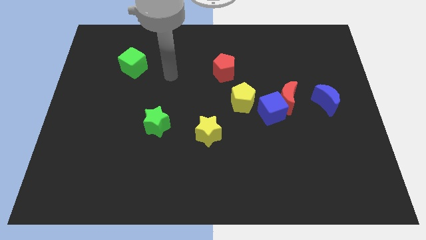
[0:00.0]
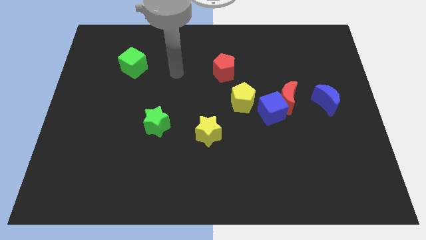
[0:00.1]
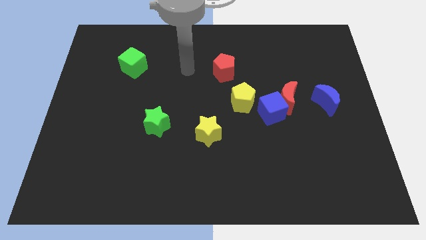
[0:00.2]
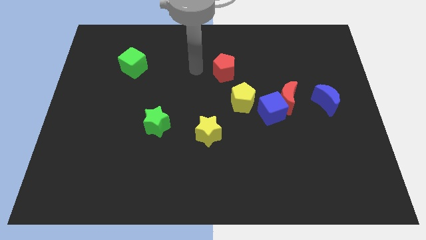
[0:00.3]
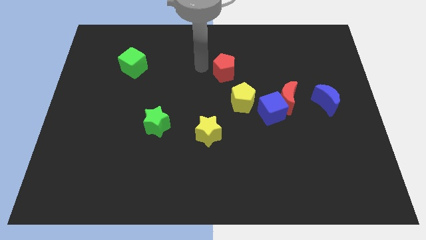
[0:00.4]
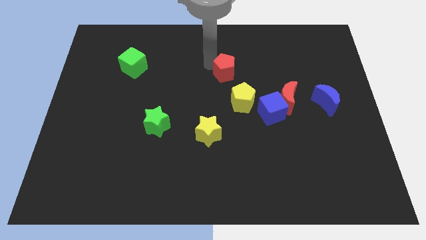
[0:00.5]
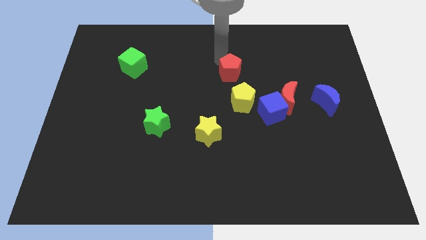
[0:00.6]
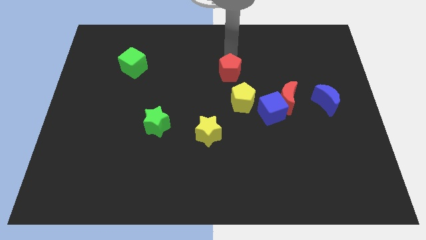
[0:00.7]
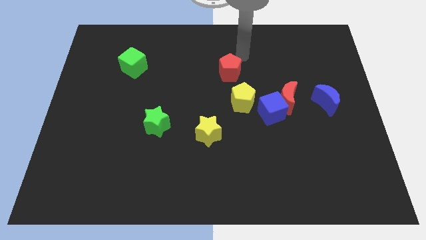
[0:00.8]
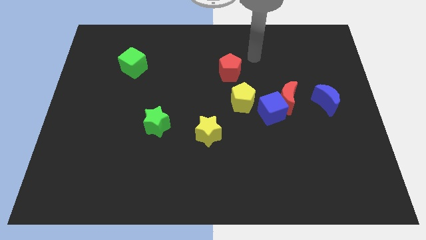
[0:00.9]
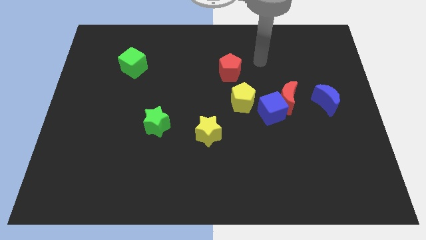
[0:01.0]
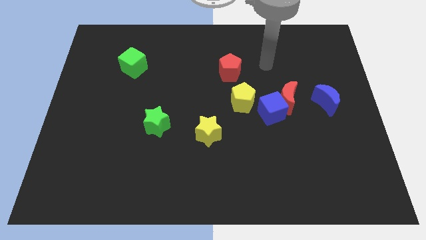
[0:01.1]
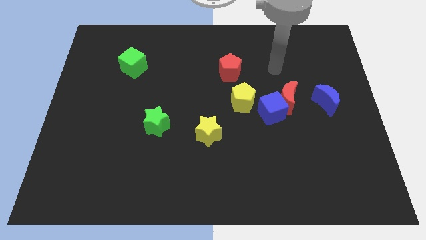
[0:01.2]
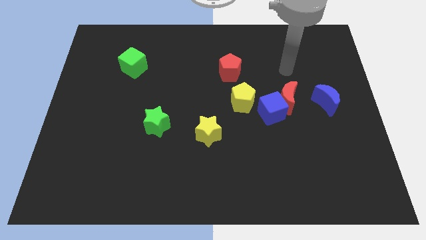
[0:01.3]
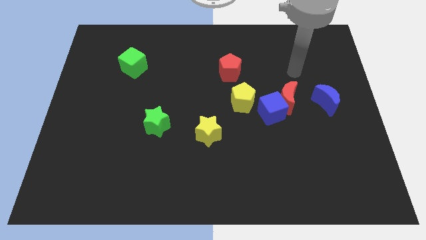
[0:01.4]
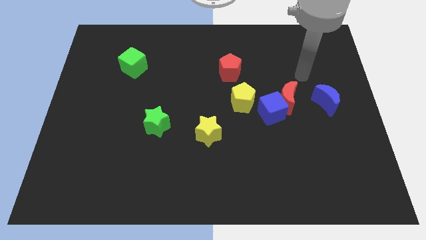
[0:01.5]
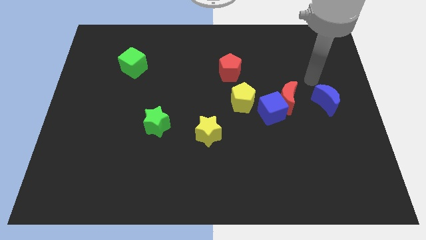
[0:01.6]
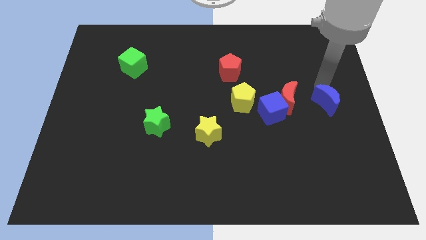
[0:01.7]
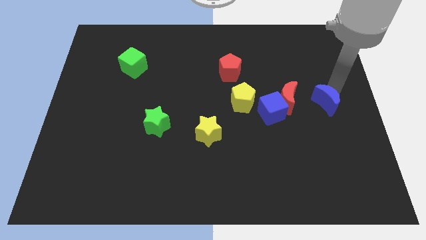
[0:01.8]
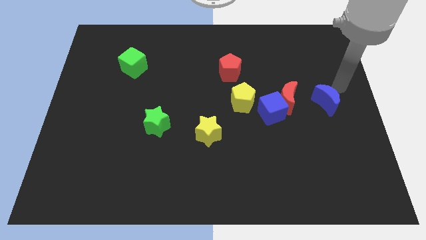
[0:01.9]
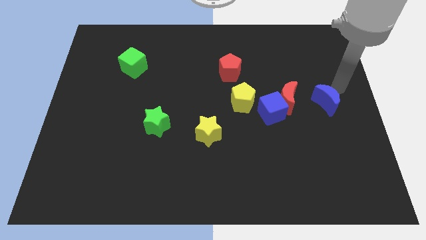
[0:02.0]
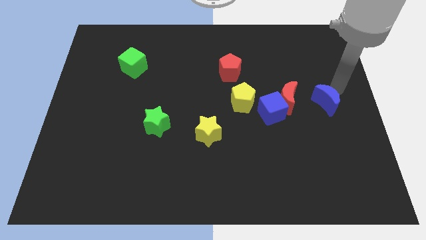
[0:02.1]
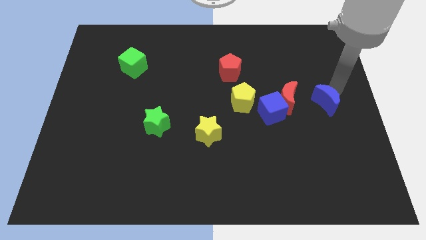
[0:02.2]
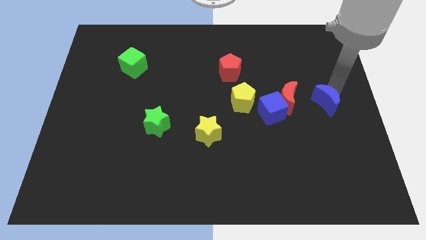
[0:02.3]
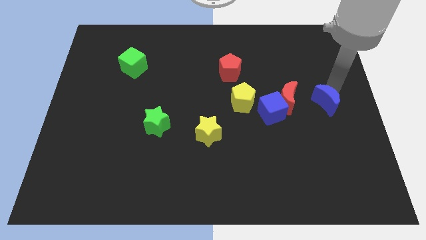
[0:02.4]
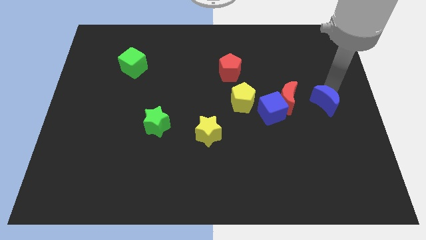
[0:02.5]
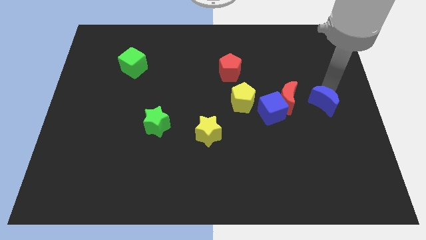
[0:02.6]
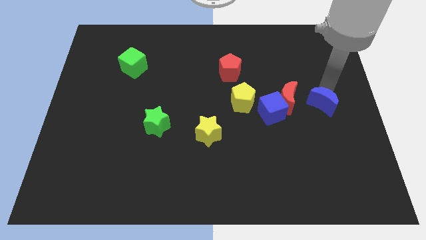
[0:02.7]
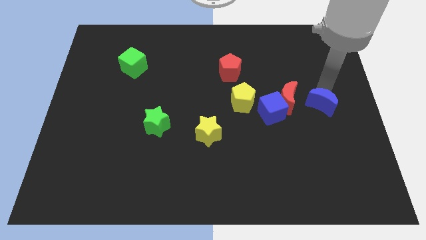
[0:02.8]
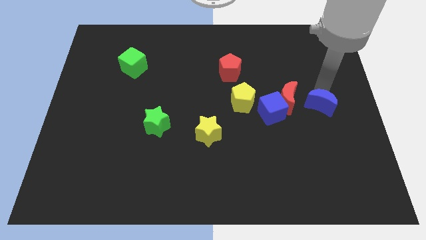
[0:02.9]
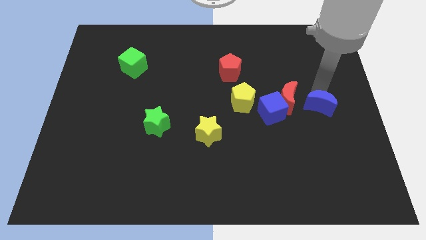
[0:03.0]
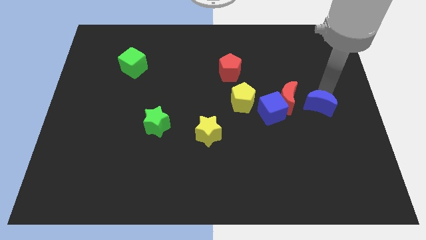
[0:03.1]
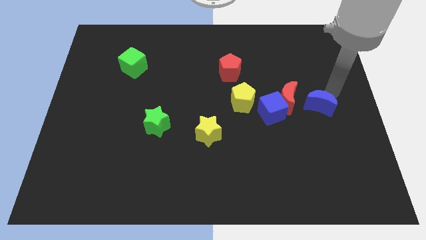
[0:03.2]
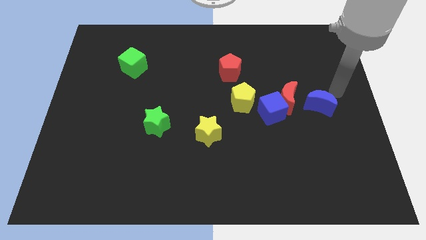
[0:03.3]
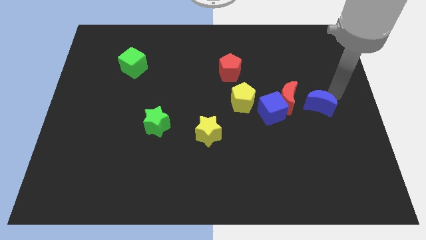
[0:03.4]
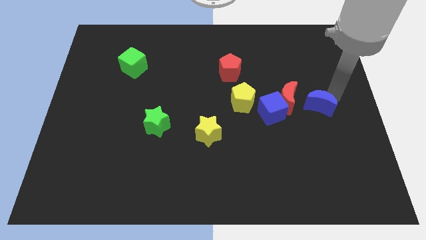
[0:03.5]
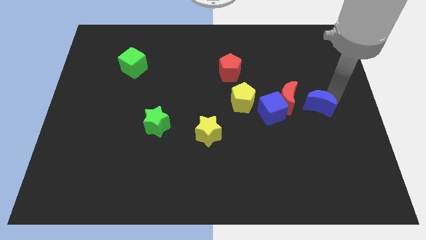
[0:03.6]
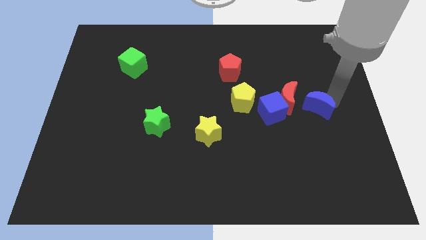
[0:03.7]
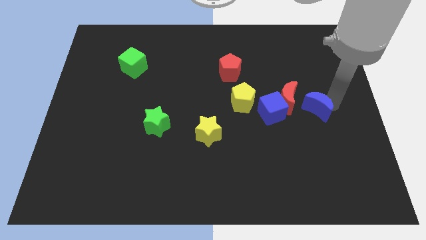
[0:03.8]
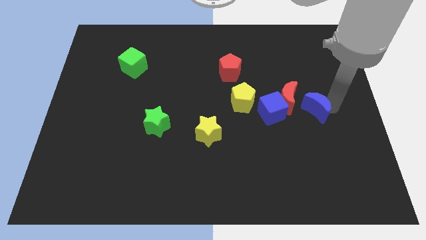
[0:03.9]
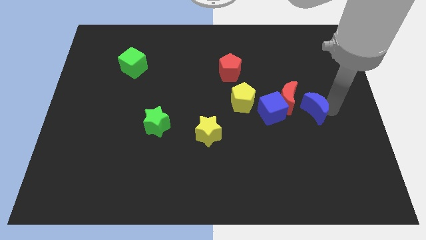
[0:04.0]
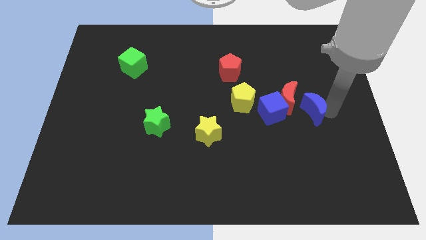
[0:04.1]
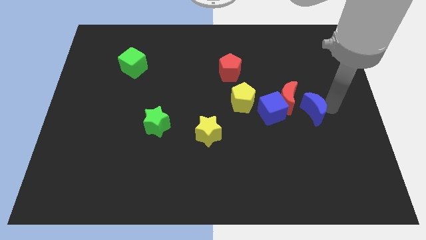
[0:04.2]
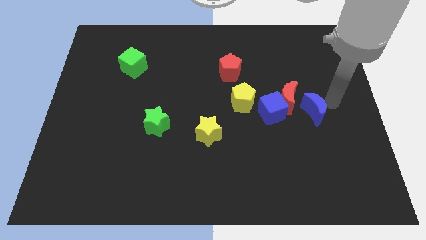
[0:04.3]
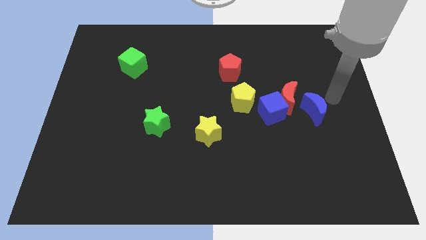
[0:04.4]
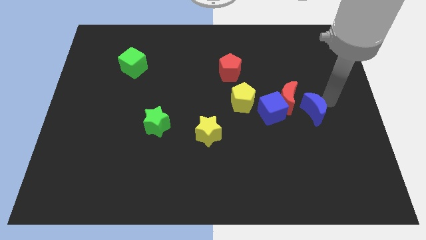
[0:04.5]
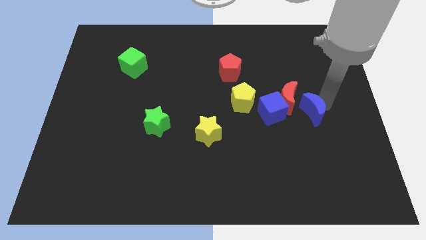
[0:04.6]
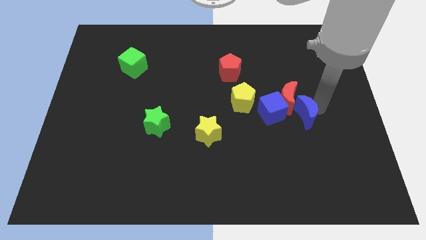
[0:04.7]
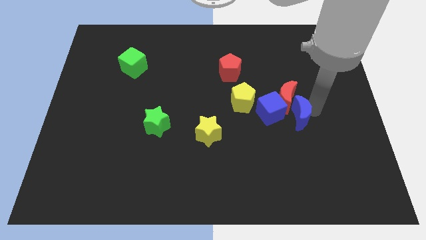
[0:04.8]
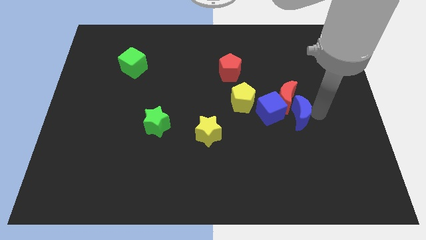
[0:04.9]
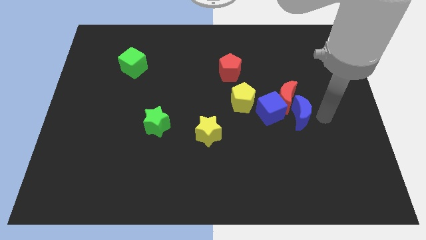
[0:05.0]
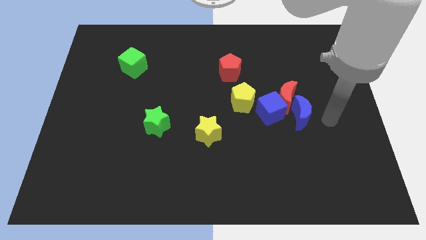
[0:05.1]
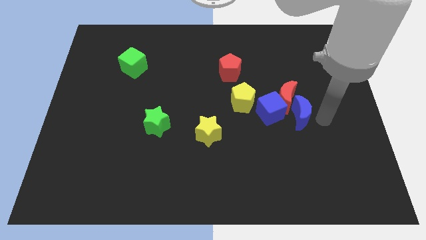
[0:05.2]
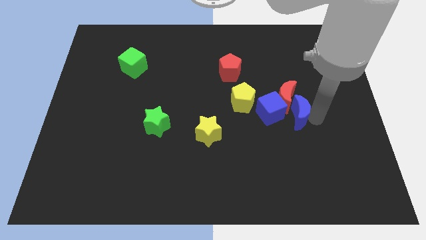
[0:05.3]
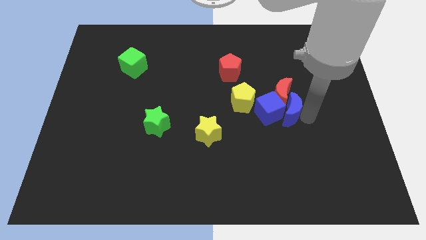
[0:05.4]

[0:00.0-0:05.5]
push the blue moon to the blue cube

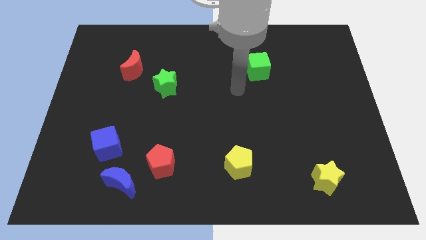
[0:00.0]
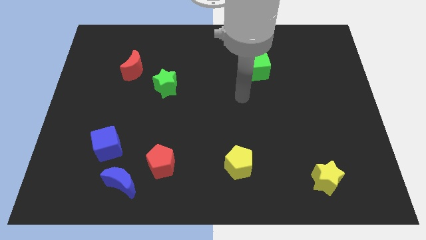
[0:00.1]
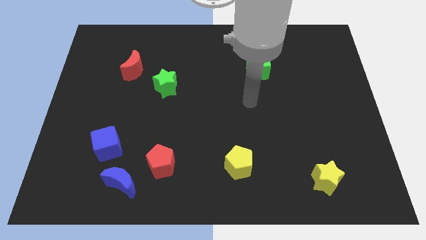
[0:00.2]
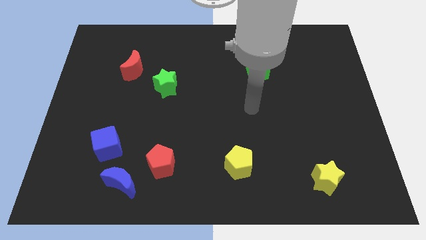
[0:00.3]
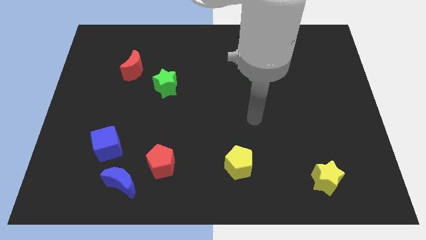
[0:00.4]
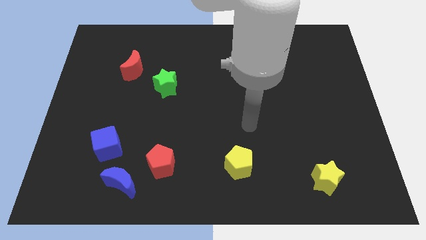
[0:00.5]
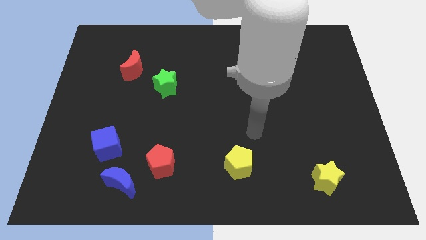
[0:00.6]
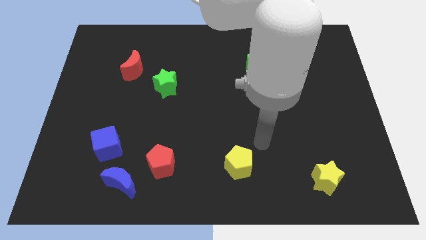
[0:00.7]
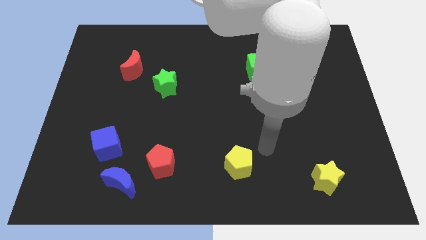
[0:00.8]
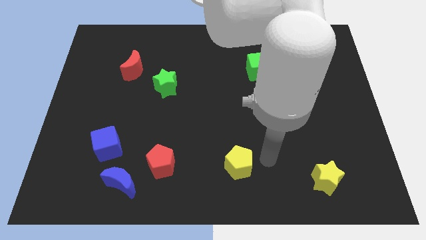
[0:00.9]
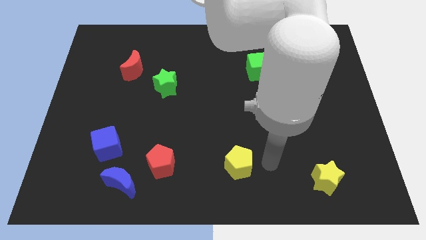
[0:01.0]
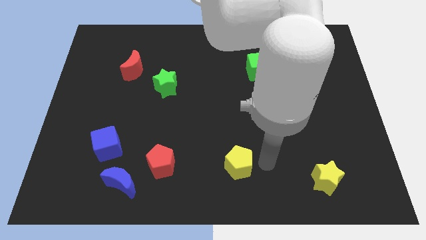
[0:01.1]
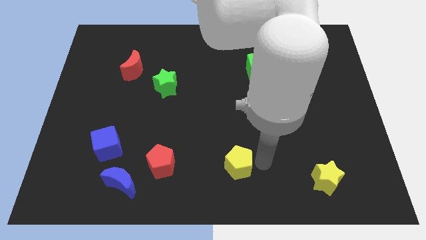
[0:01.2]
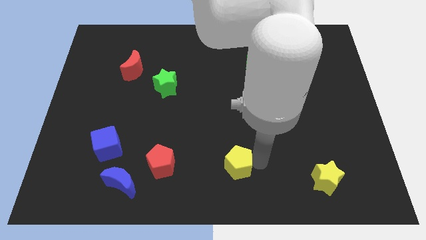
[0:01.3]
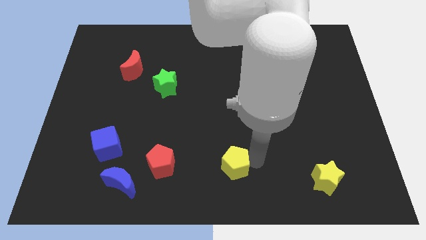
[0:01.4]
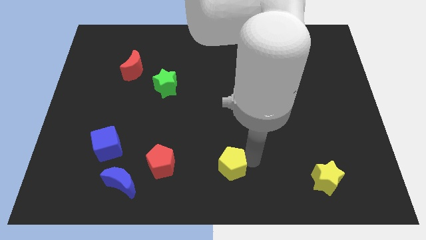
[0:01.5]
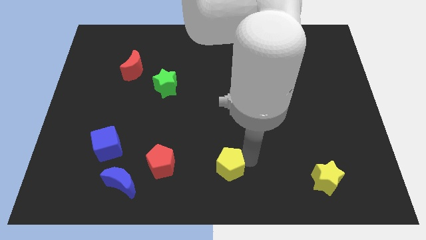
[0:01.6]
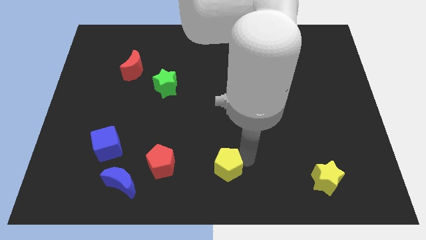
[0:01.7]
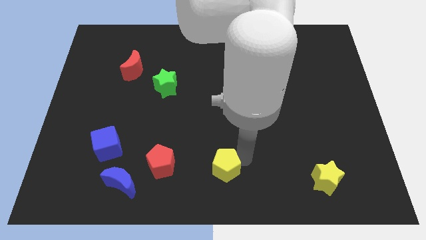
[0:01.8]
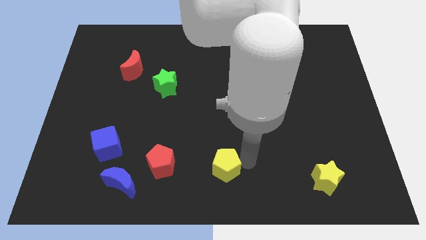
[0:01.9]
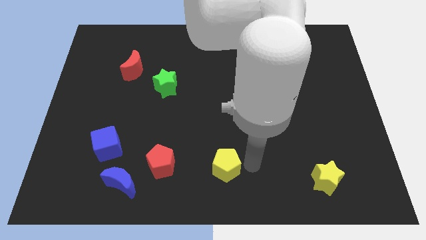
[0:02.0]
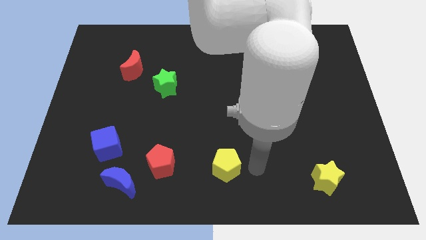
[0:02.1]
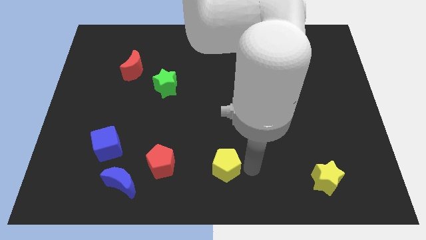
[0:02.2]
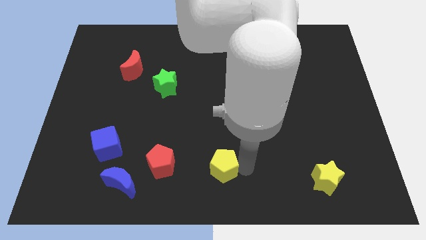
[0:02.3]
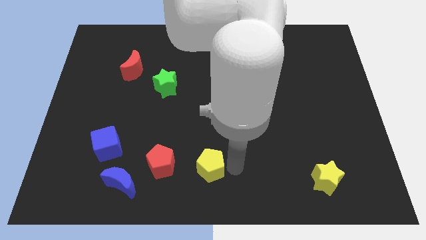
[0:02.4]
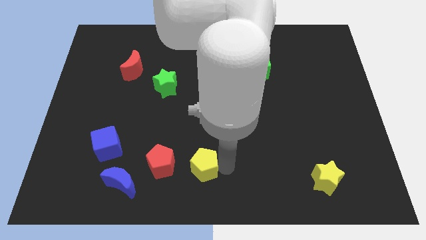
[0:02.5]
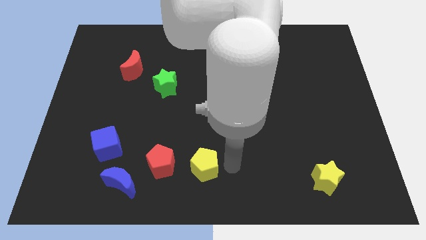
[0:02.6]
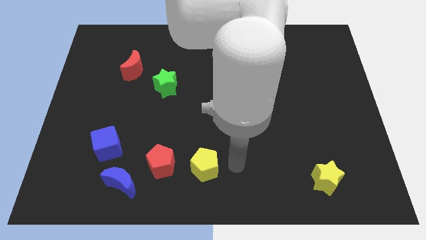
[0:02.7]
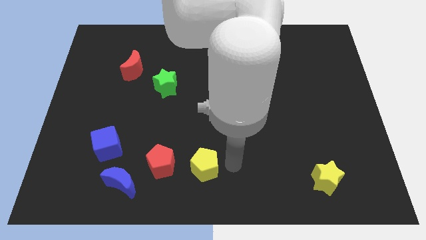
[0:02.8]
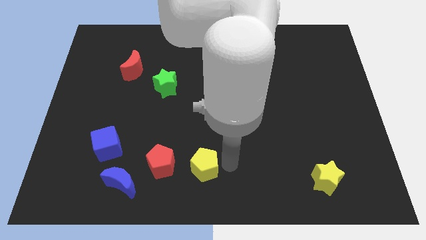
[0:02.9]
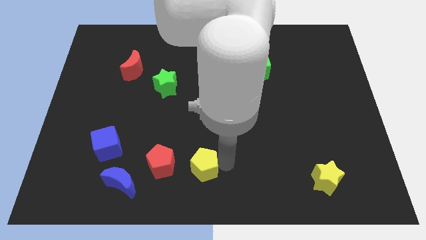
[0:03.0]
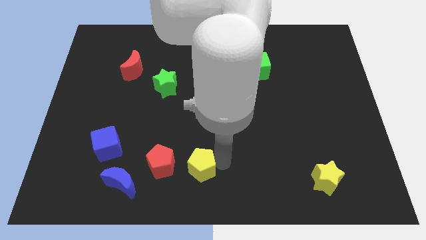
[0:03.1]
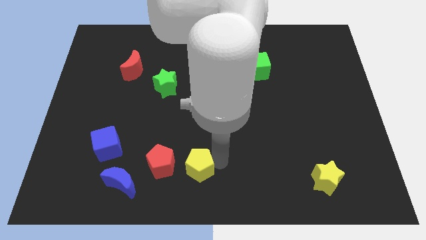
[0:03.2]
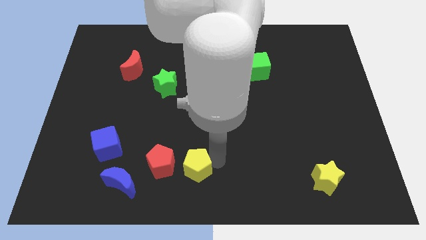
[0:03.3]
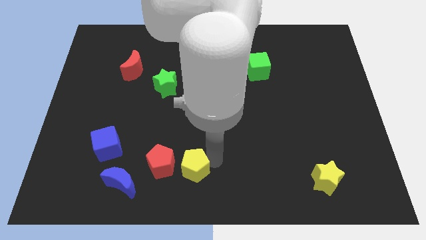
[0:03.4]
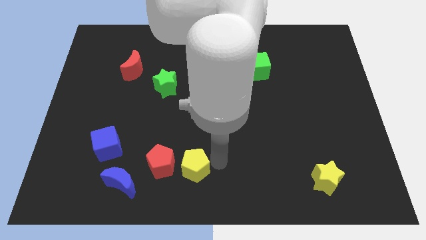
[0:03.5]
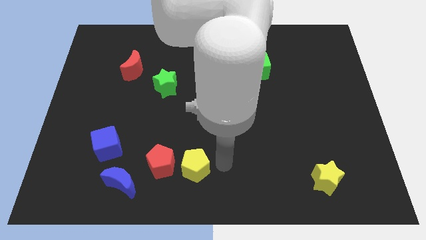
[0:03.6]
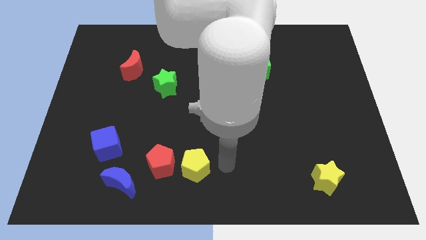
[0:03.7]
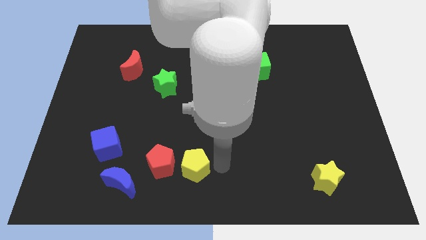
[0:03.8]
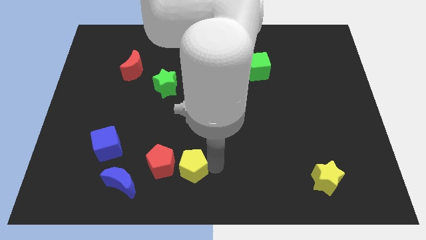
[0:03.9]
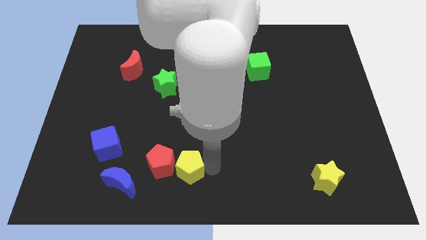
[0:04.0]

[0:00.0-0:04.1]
put the yellow pentagon towards the red pentagon
